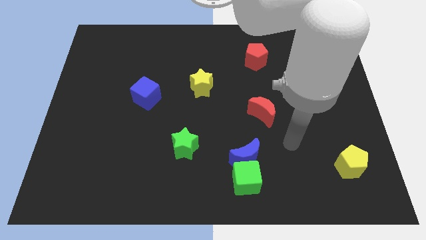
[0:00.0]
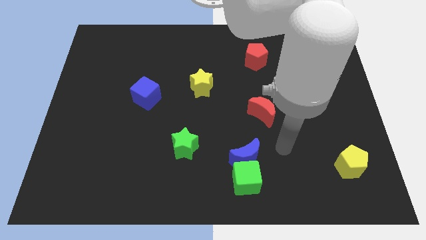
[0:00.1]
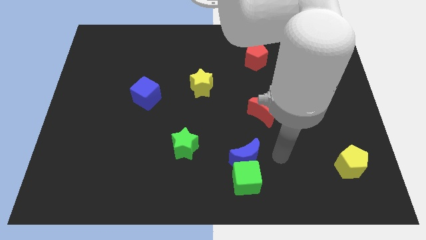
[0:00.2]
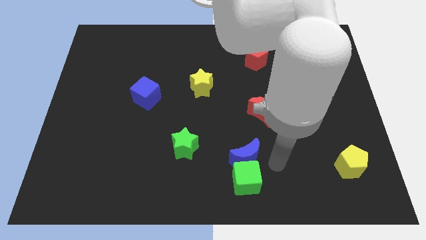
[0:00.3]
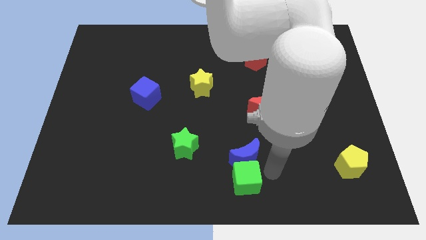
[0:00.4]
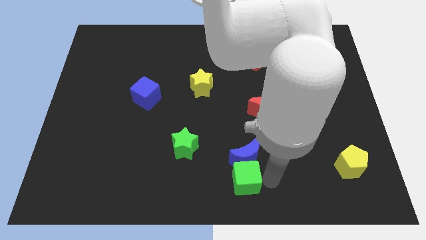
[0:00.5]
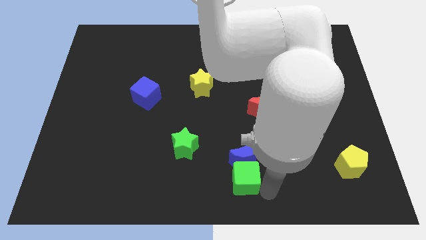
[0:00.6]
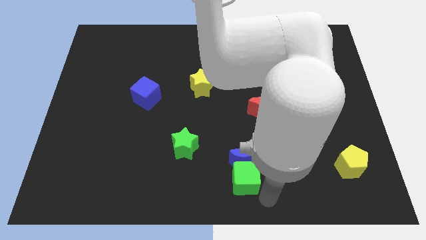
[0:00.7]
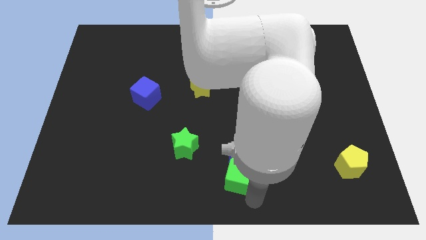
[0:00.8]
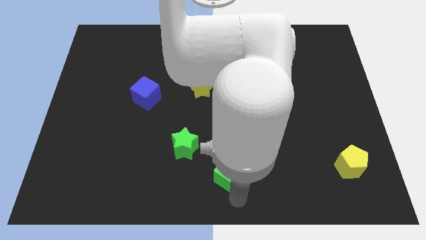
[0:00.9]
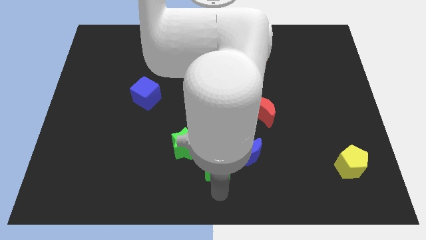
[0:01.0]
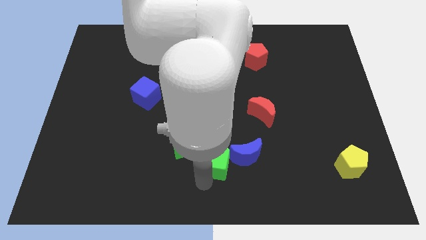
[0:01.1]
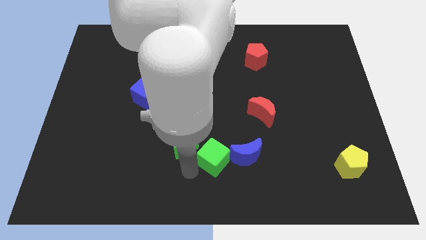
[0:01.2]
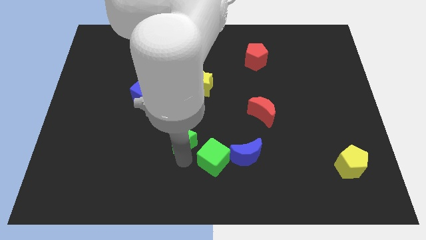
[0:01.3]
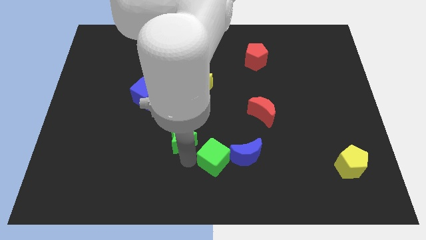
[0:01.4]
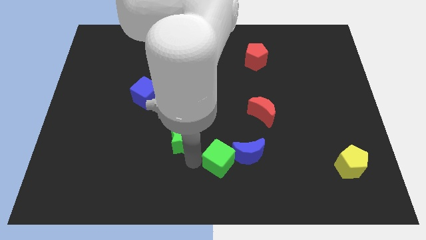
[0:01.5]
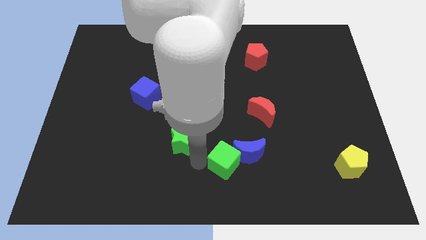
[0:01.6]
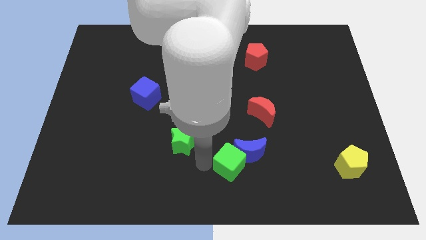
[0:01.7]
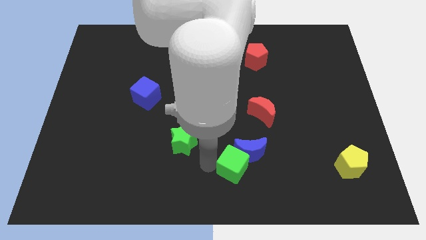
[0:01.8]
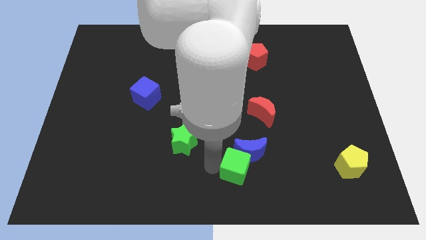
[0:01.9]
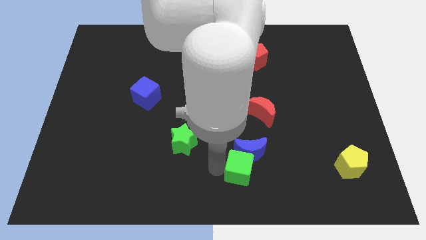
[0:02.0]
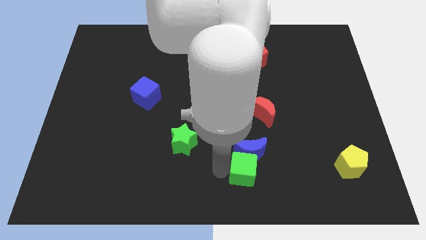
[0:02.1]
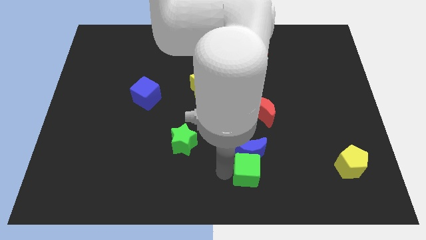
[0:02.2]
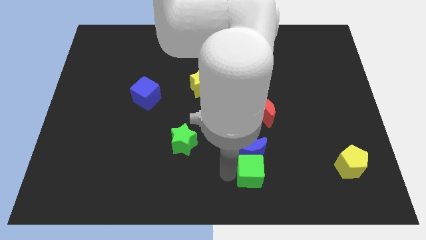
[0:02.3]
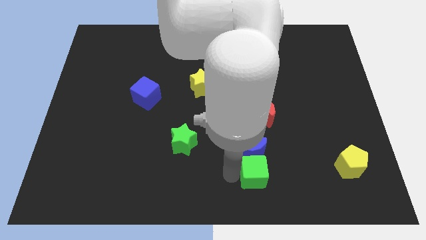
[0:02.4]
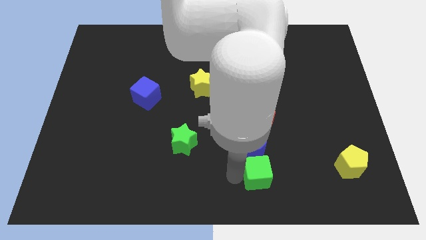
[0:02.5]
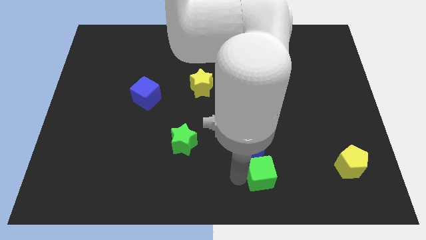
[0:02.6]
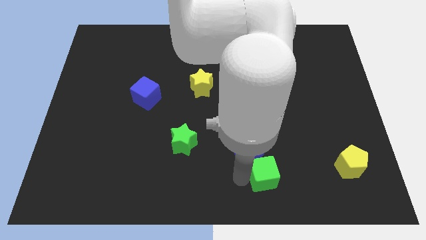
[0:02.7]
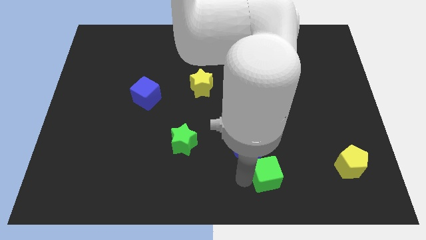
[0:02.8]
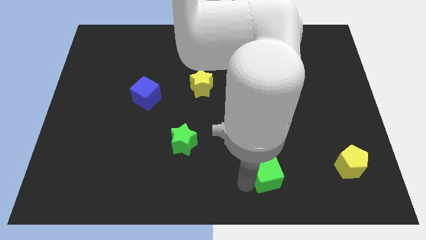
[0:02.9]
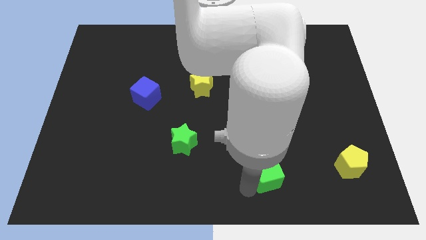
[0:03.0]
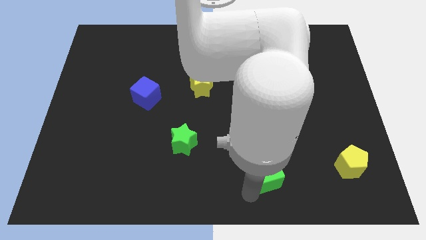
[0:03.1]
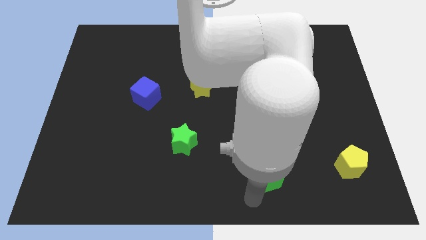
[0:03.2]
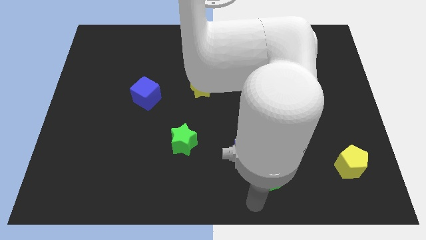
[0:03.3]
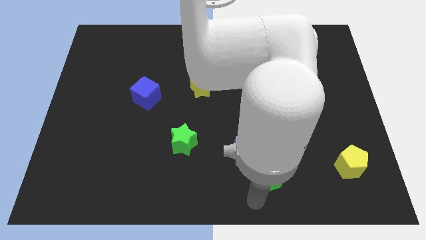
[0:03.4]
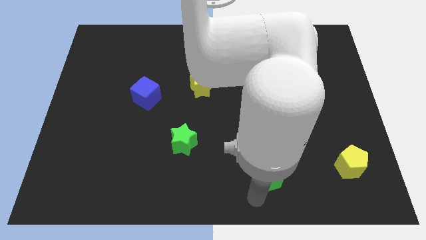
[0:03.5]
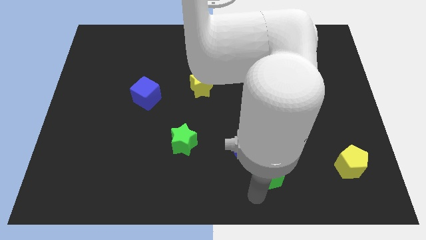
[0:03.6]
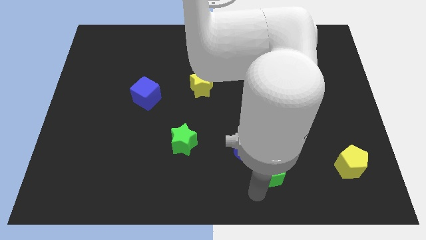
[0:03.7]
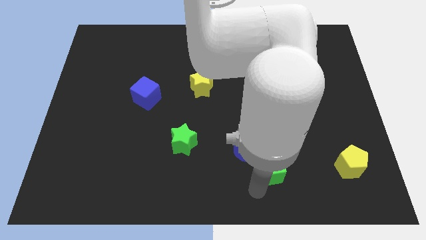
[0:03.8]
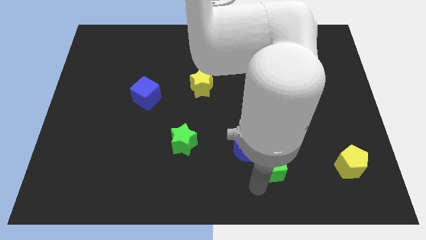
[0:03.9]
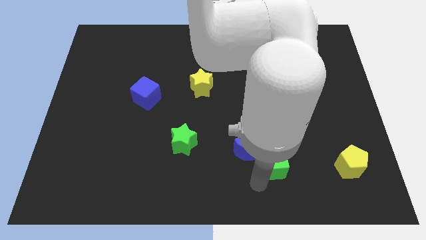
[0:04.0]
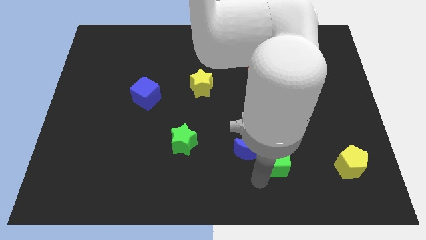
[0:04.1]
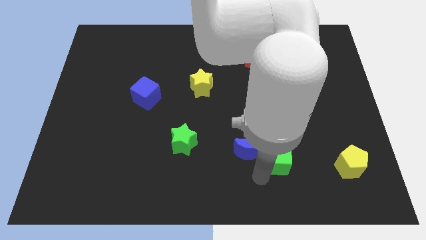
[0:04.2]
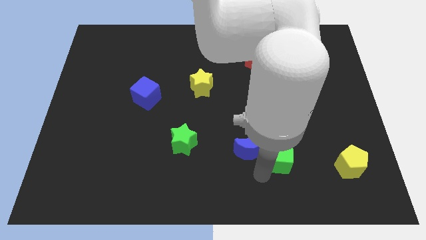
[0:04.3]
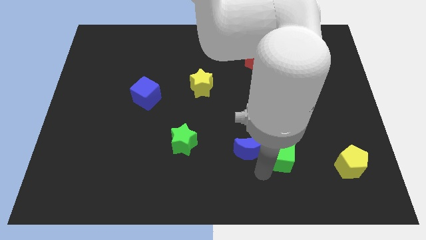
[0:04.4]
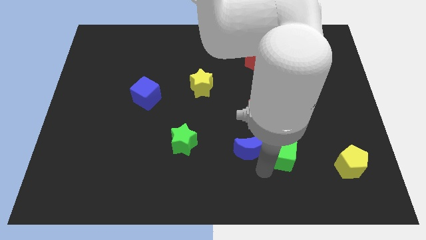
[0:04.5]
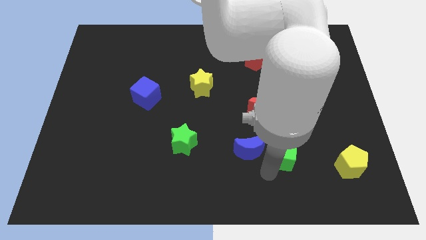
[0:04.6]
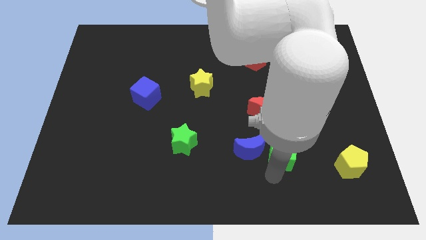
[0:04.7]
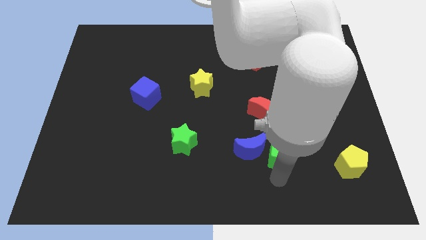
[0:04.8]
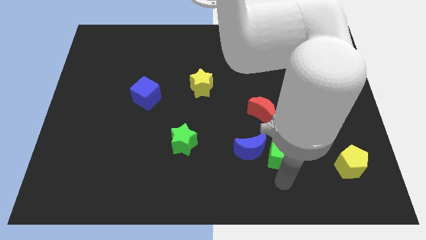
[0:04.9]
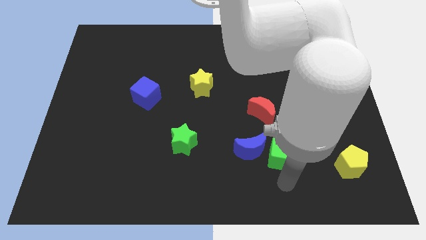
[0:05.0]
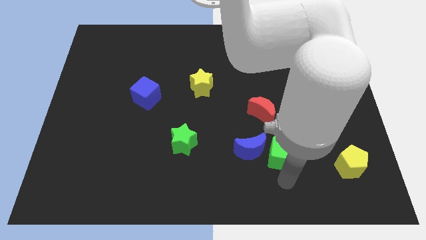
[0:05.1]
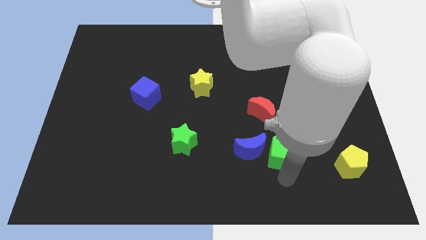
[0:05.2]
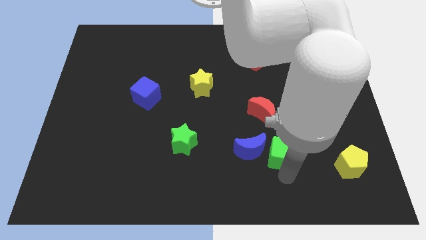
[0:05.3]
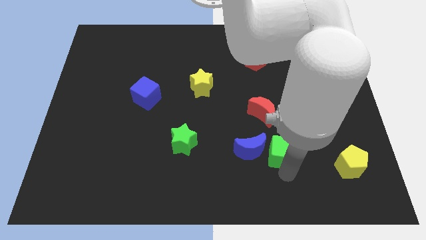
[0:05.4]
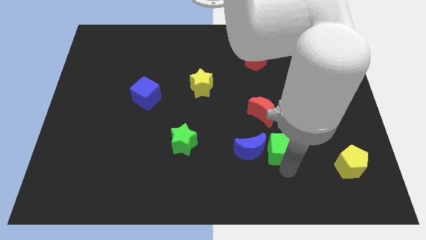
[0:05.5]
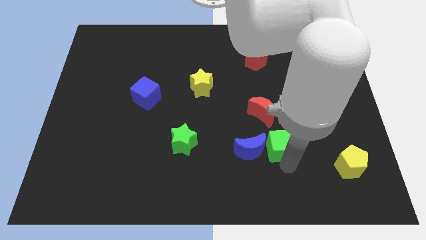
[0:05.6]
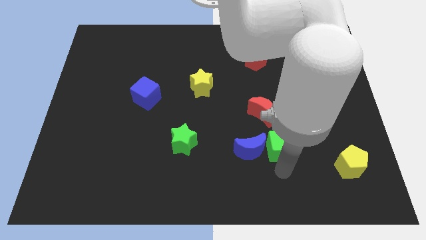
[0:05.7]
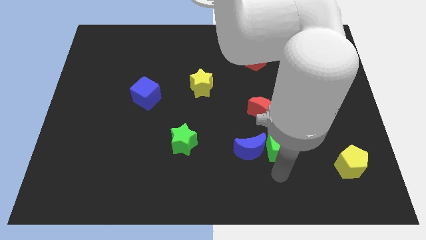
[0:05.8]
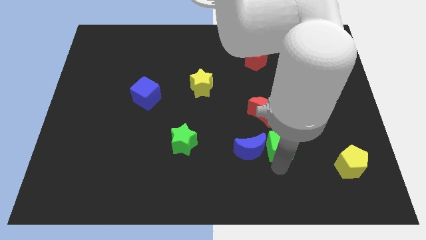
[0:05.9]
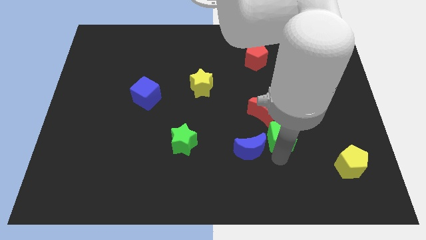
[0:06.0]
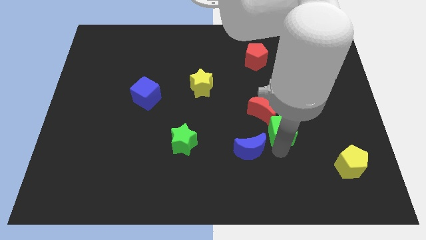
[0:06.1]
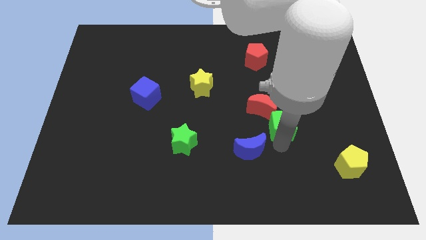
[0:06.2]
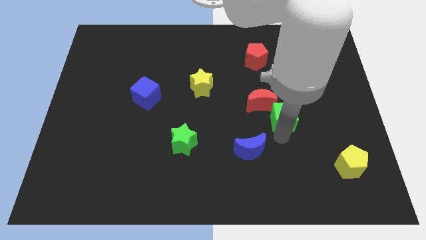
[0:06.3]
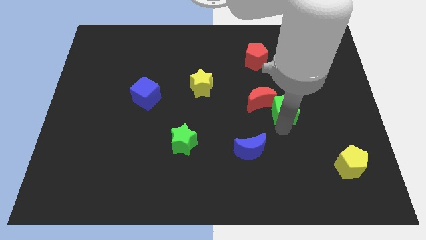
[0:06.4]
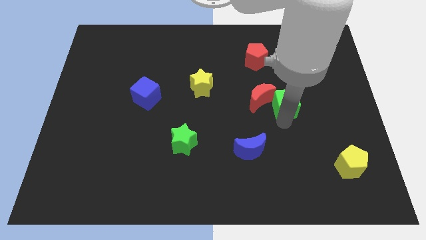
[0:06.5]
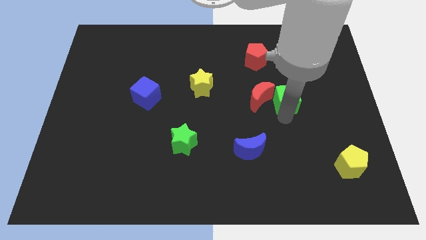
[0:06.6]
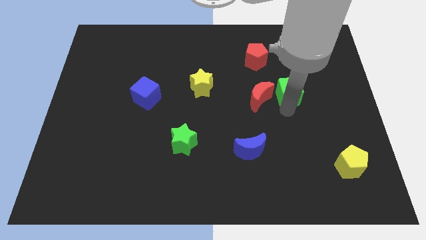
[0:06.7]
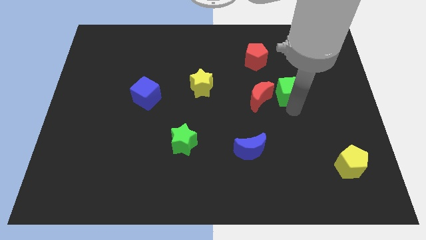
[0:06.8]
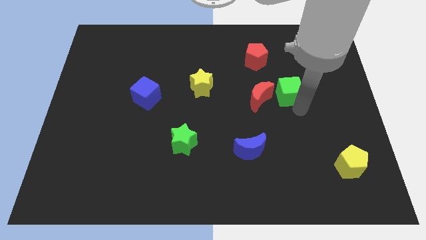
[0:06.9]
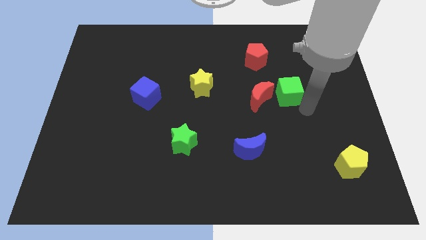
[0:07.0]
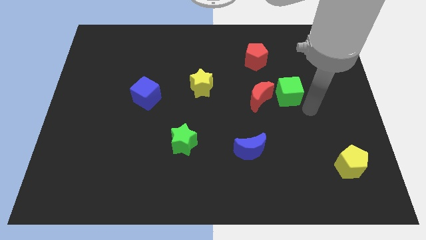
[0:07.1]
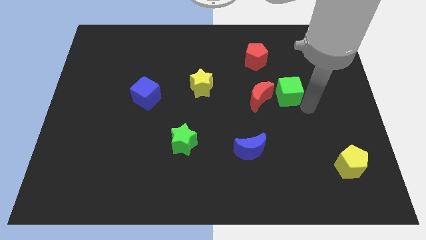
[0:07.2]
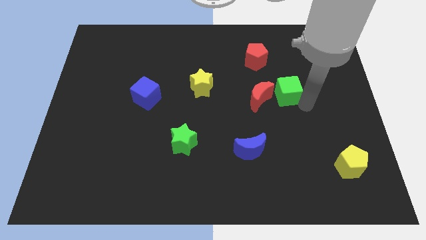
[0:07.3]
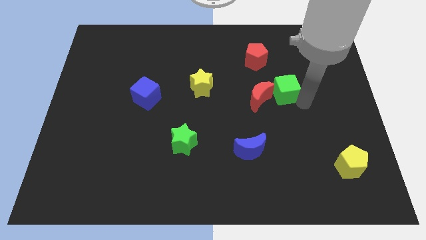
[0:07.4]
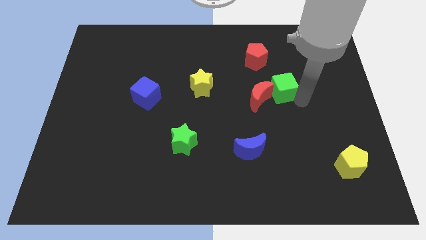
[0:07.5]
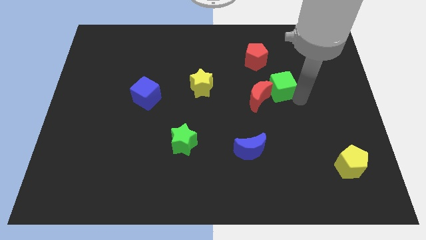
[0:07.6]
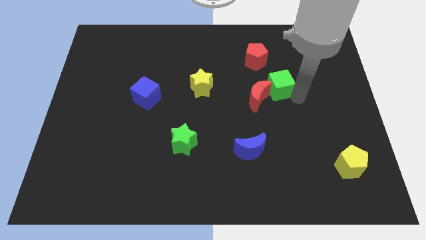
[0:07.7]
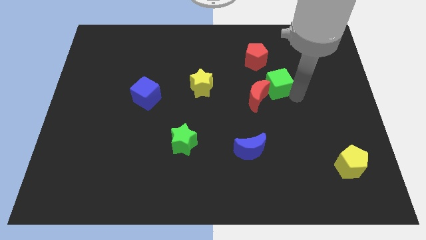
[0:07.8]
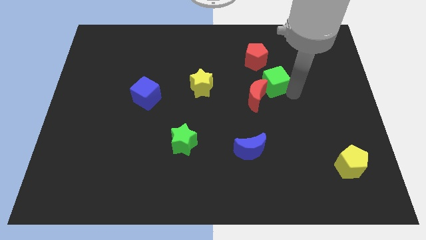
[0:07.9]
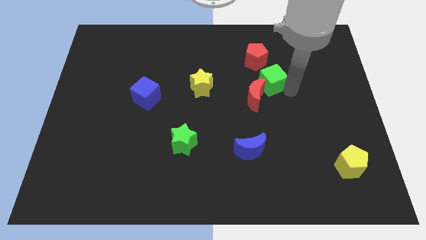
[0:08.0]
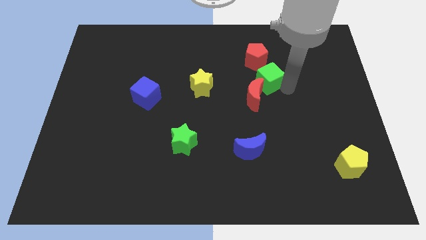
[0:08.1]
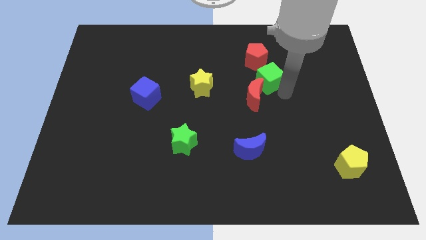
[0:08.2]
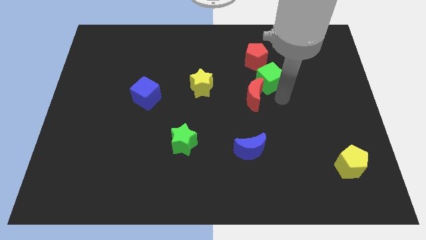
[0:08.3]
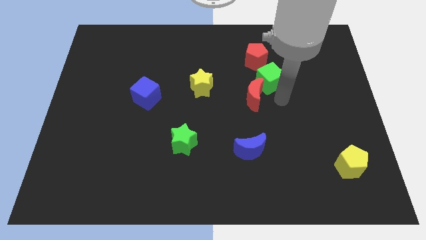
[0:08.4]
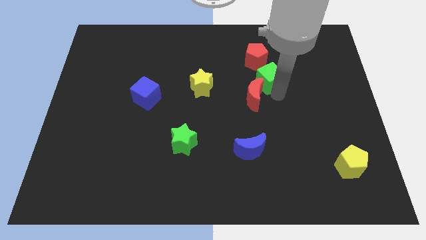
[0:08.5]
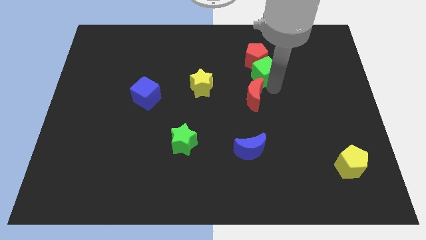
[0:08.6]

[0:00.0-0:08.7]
move the green cube towards the red pentagon
